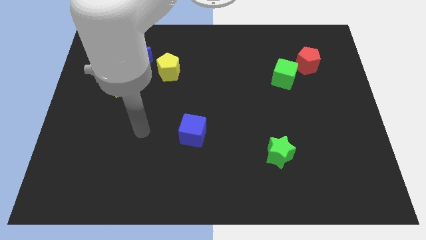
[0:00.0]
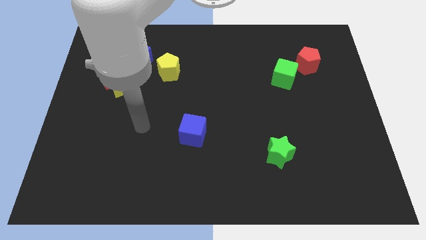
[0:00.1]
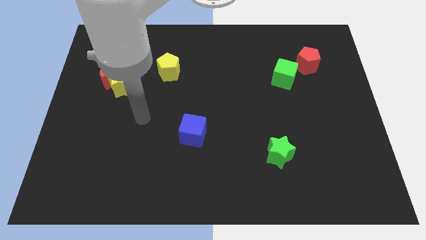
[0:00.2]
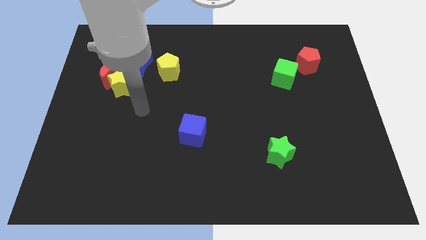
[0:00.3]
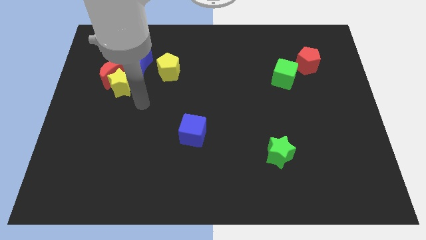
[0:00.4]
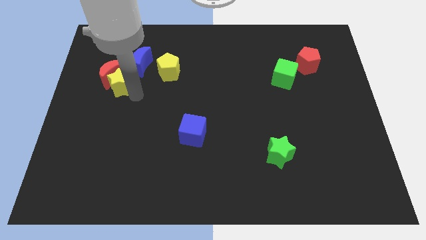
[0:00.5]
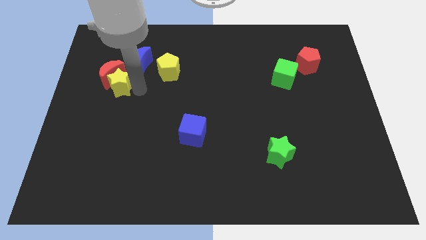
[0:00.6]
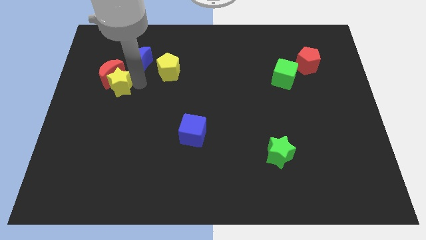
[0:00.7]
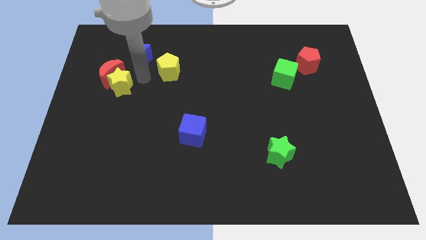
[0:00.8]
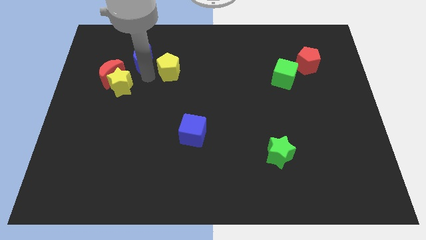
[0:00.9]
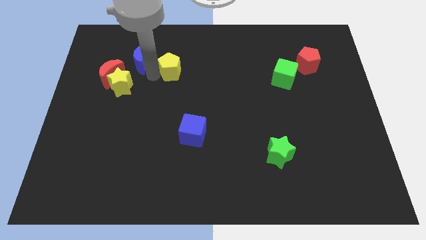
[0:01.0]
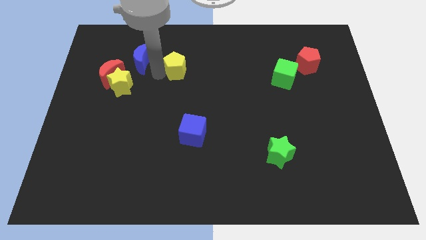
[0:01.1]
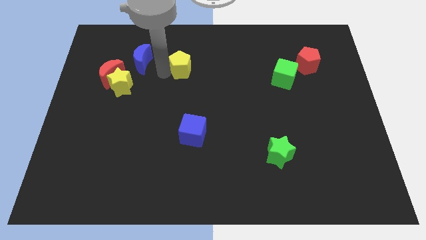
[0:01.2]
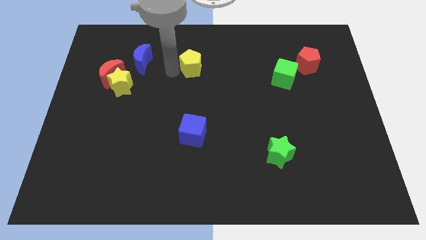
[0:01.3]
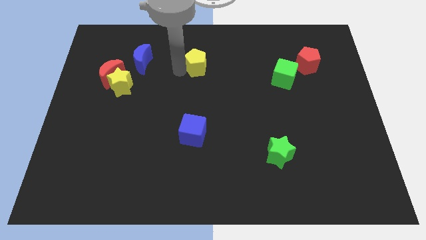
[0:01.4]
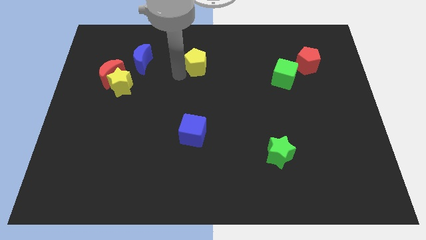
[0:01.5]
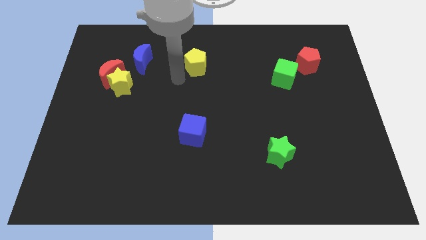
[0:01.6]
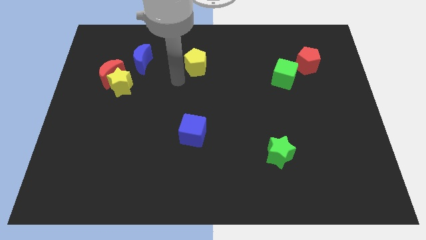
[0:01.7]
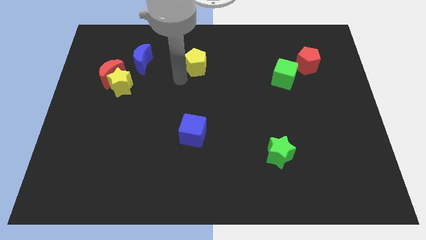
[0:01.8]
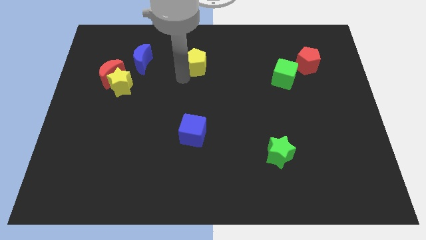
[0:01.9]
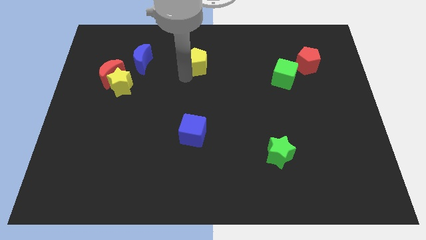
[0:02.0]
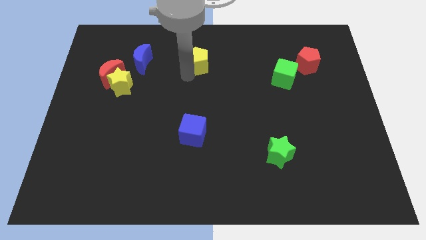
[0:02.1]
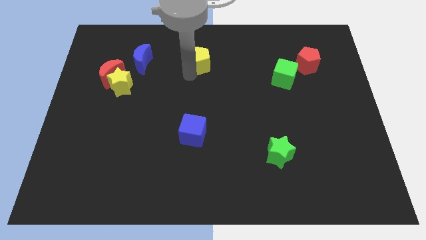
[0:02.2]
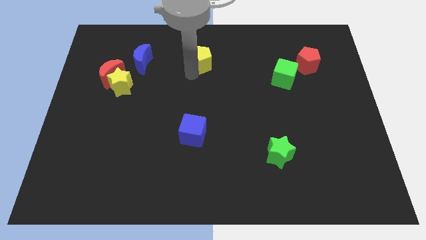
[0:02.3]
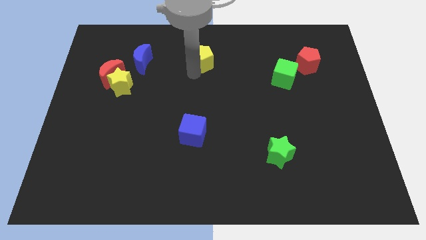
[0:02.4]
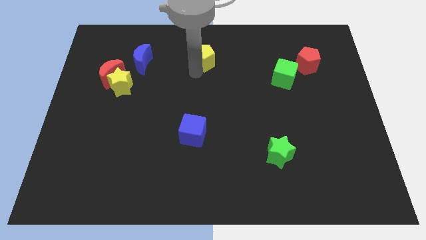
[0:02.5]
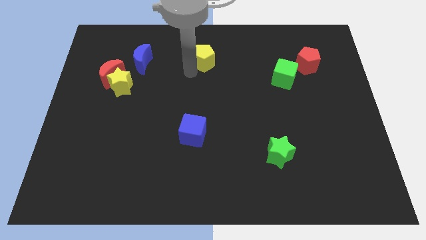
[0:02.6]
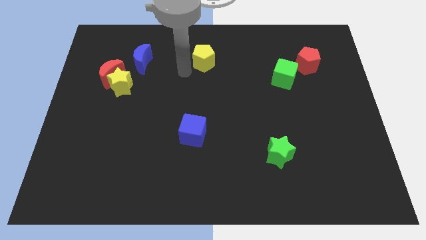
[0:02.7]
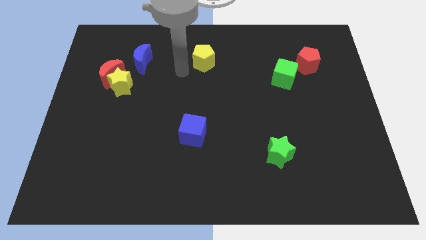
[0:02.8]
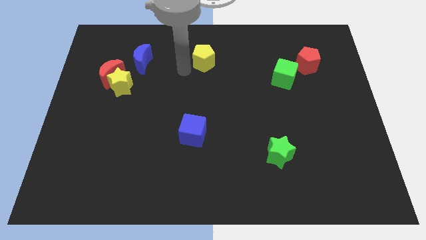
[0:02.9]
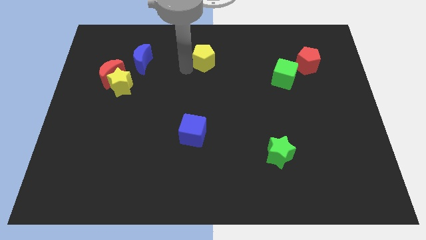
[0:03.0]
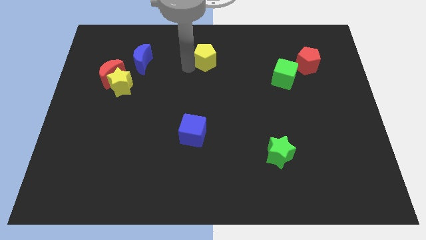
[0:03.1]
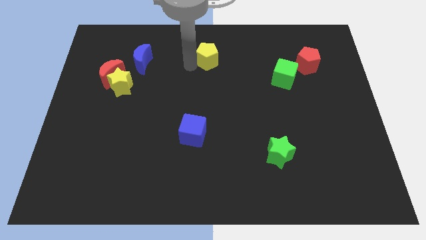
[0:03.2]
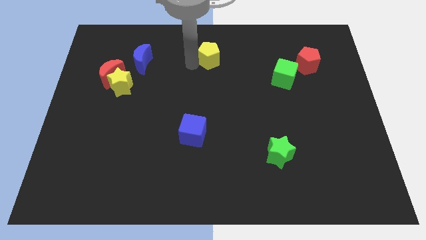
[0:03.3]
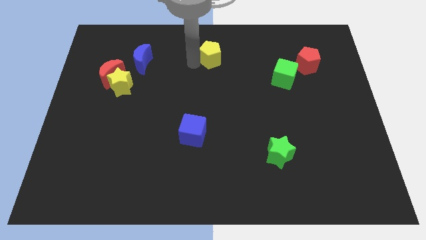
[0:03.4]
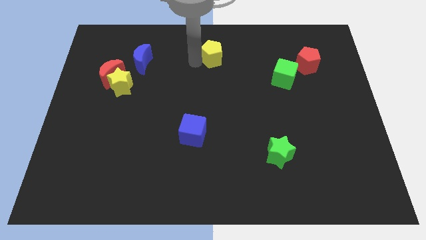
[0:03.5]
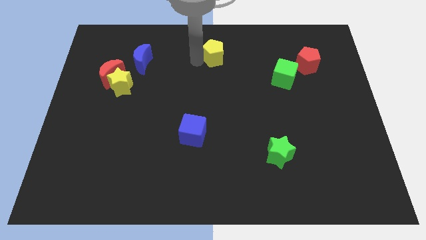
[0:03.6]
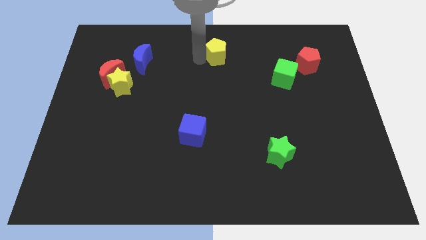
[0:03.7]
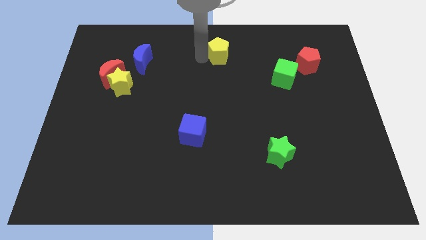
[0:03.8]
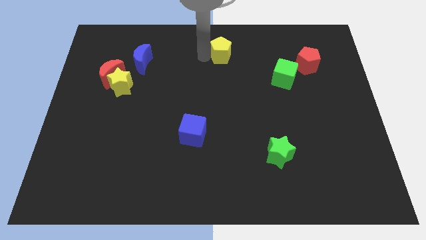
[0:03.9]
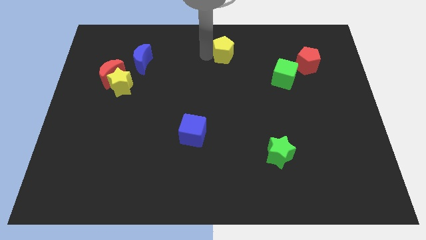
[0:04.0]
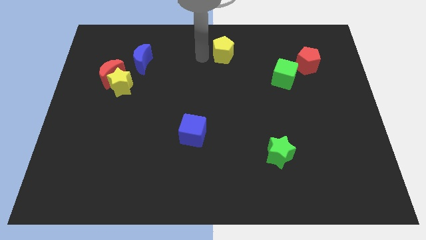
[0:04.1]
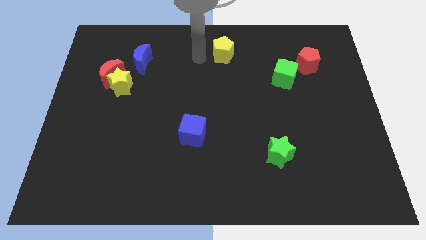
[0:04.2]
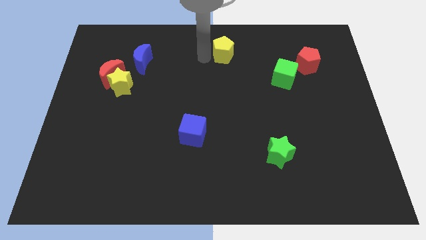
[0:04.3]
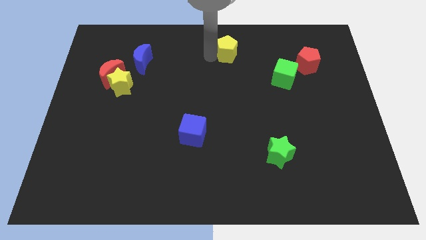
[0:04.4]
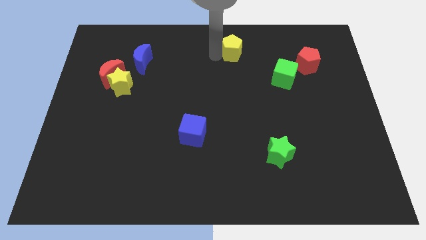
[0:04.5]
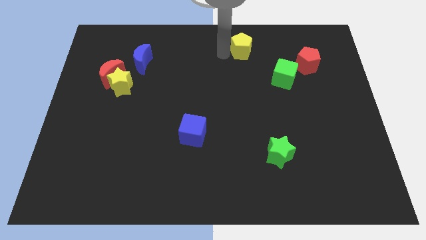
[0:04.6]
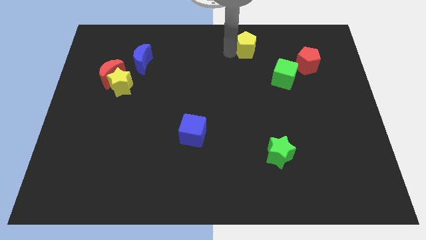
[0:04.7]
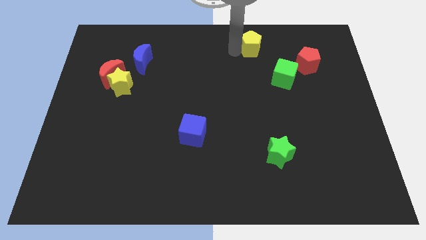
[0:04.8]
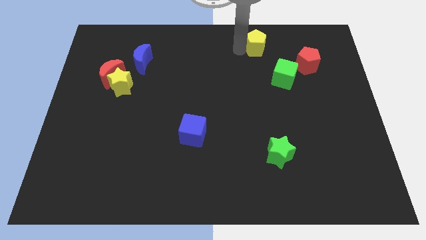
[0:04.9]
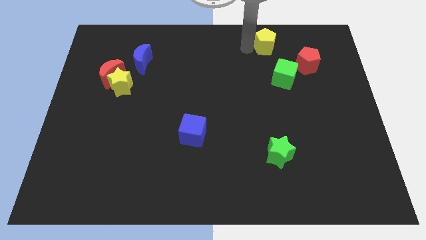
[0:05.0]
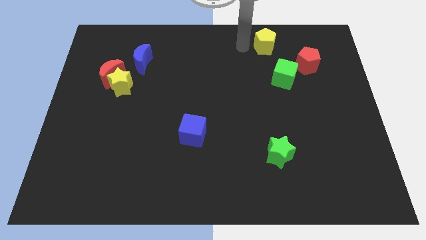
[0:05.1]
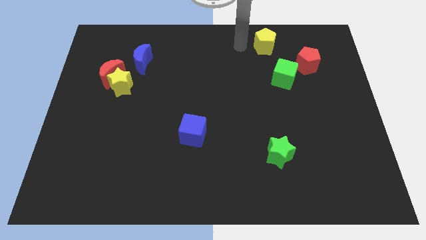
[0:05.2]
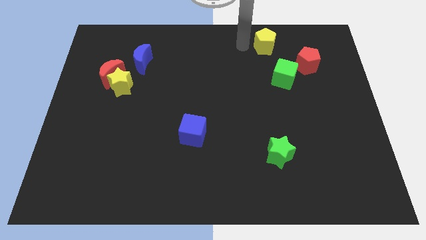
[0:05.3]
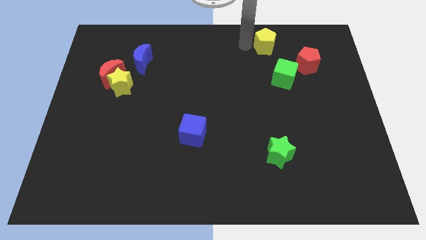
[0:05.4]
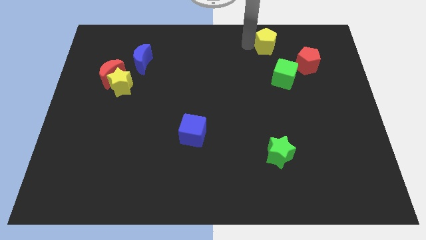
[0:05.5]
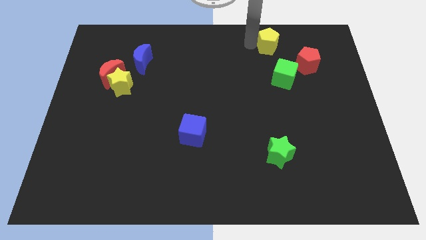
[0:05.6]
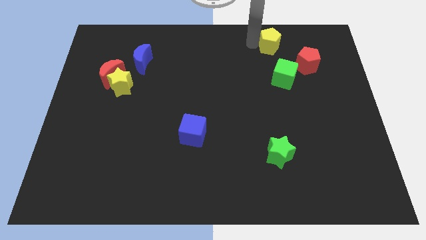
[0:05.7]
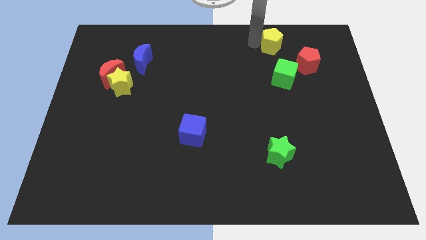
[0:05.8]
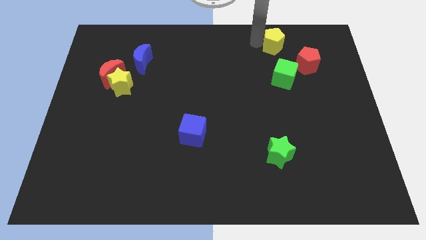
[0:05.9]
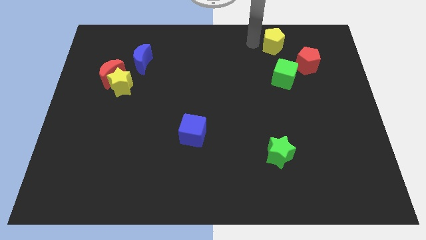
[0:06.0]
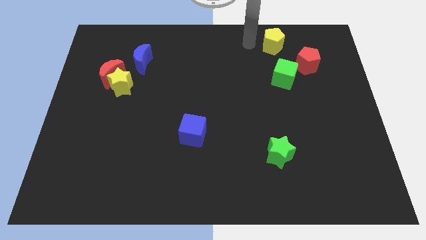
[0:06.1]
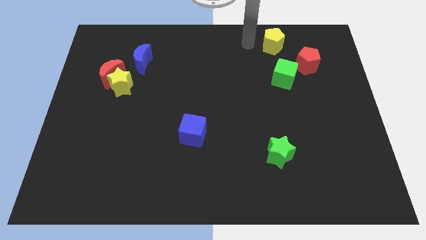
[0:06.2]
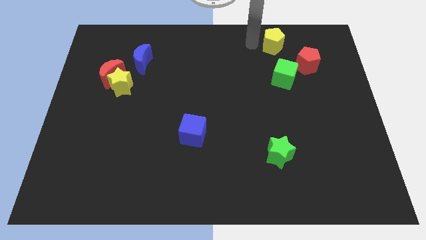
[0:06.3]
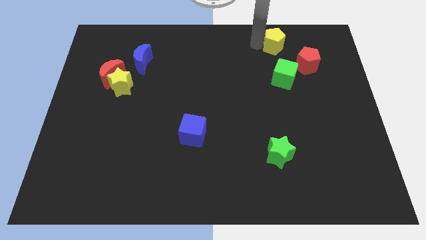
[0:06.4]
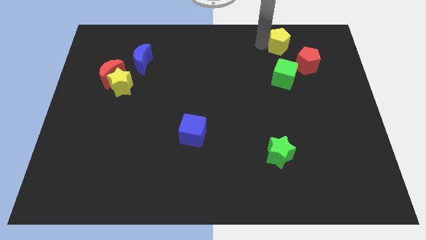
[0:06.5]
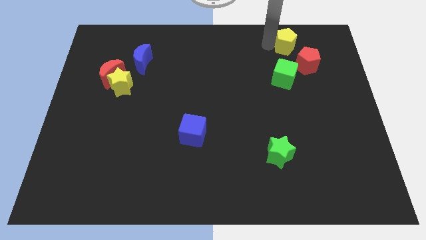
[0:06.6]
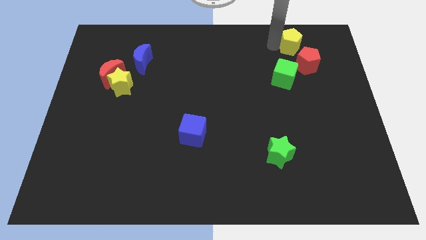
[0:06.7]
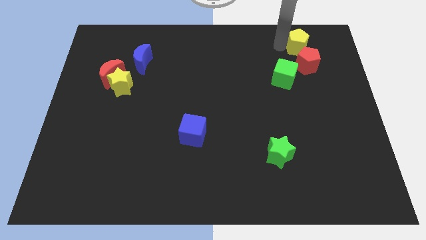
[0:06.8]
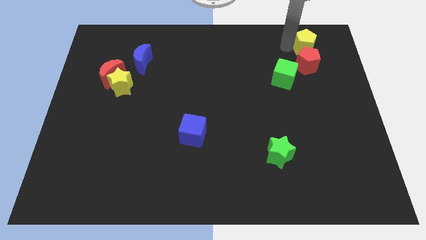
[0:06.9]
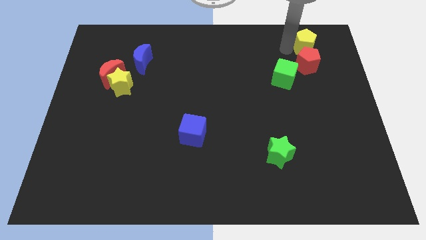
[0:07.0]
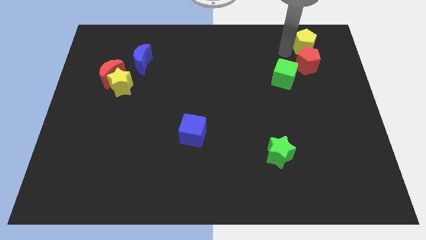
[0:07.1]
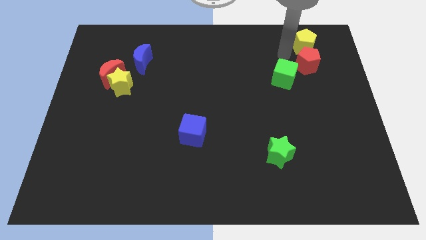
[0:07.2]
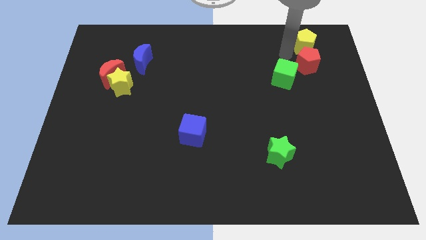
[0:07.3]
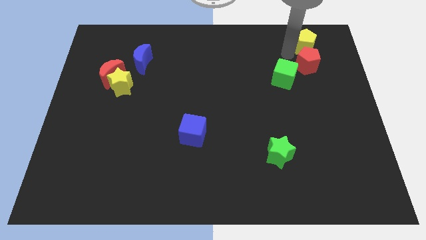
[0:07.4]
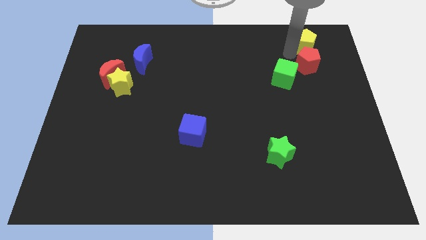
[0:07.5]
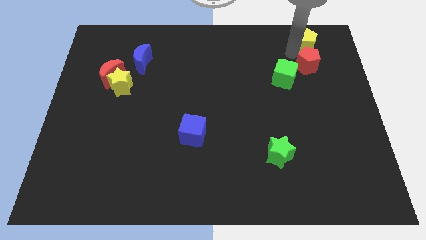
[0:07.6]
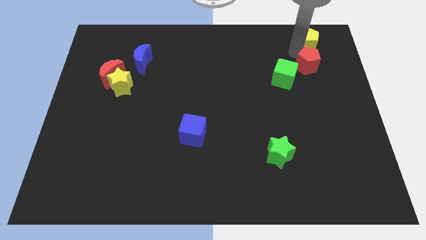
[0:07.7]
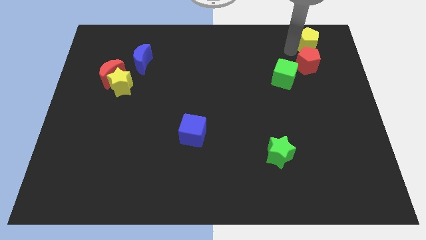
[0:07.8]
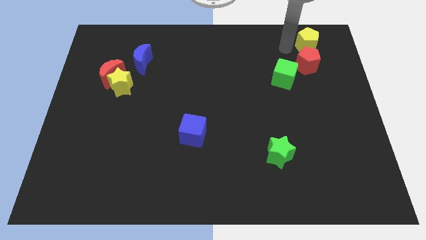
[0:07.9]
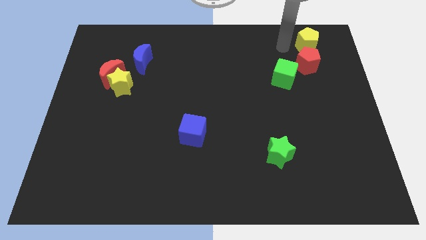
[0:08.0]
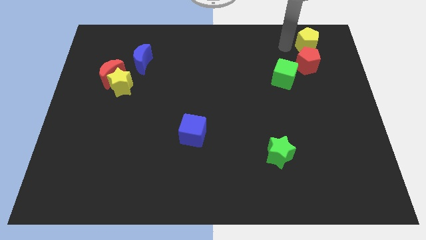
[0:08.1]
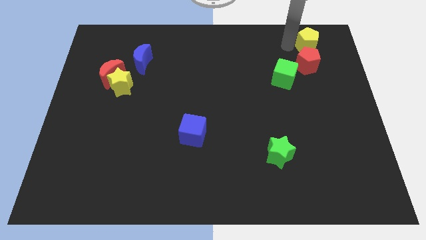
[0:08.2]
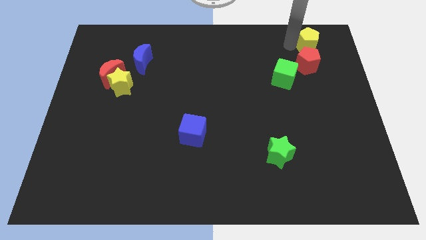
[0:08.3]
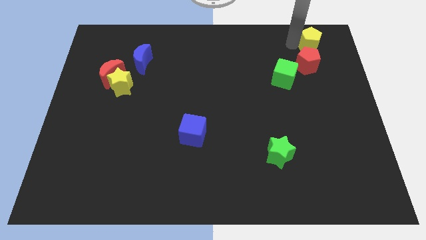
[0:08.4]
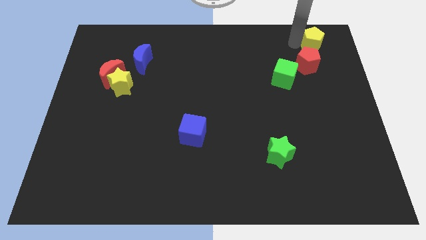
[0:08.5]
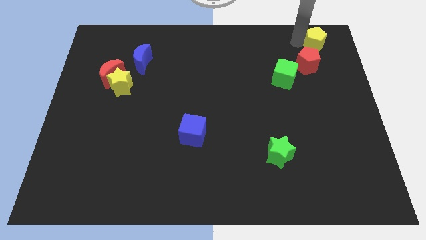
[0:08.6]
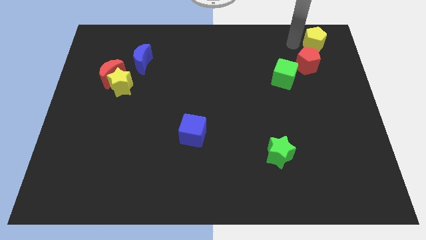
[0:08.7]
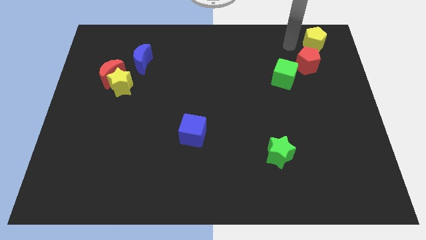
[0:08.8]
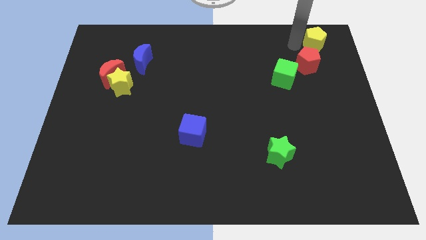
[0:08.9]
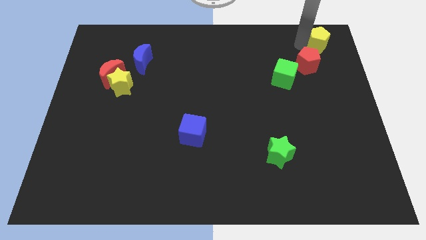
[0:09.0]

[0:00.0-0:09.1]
move the yellow pentagon to the top right
